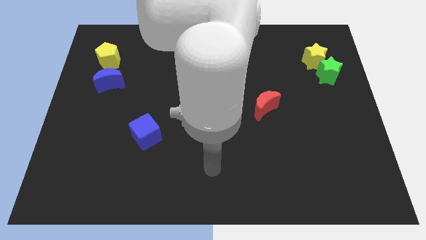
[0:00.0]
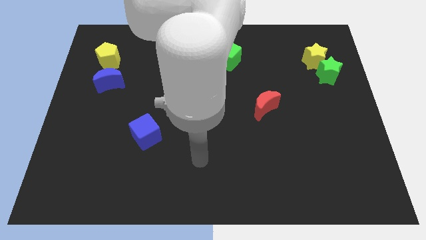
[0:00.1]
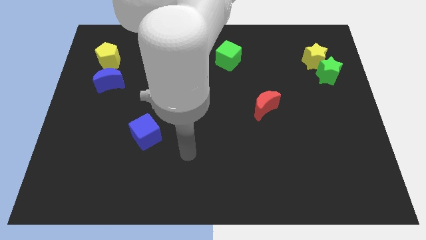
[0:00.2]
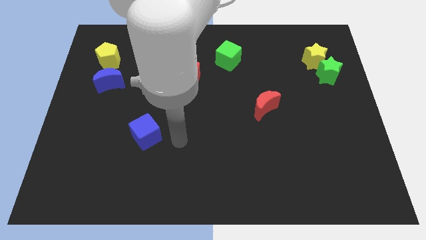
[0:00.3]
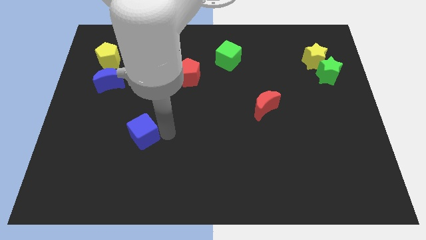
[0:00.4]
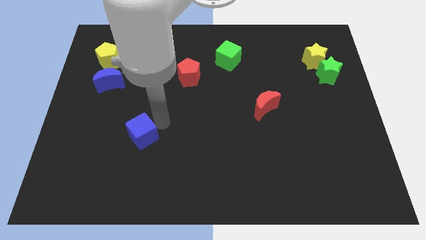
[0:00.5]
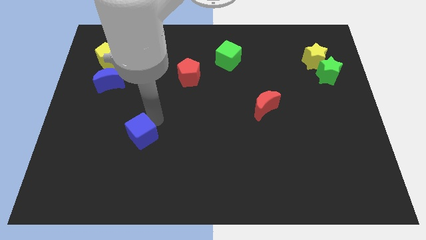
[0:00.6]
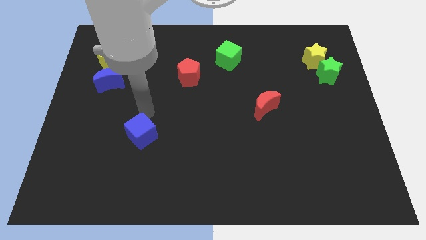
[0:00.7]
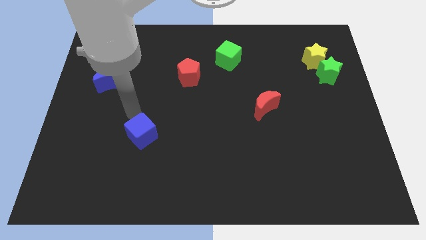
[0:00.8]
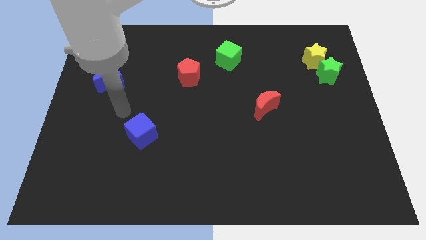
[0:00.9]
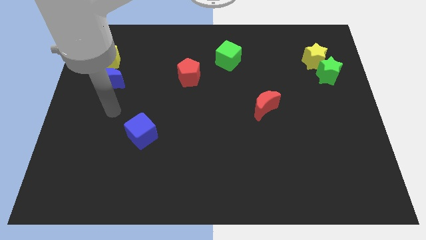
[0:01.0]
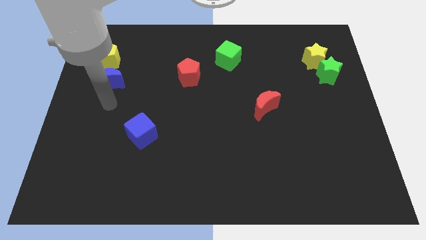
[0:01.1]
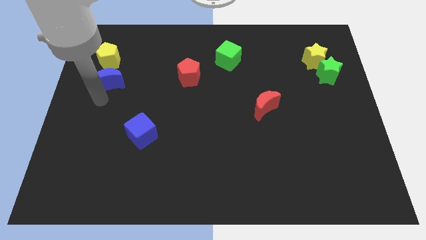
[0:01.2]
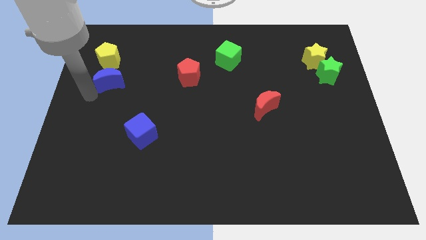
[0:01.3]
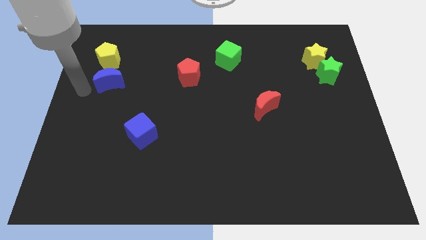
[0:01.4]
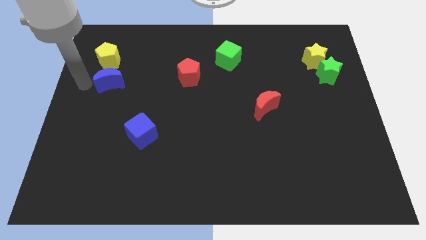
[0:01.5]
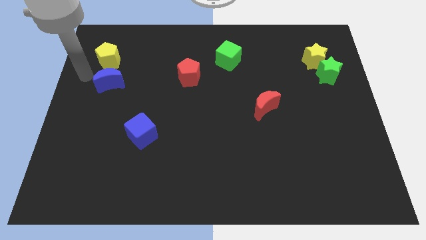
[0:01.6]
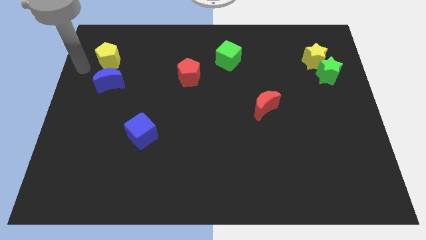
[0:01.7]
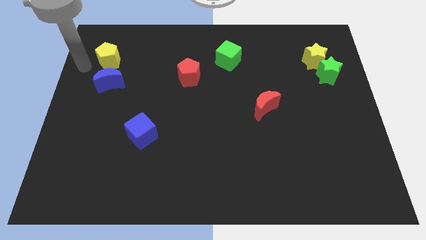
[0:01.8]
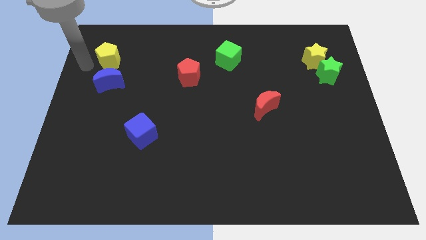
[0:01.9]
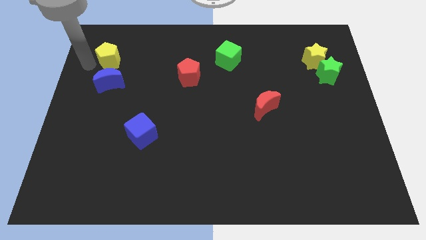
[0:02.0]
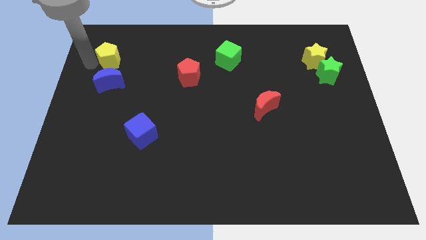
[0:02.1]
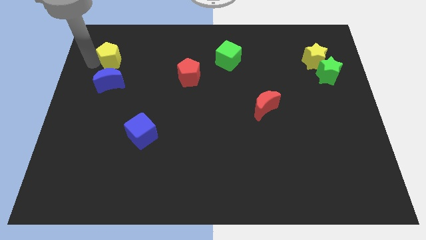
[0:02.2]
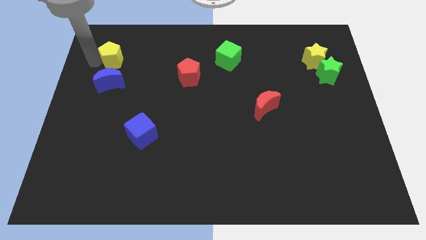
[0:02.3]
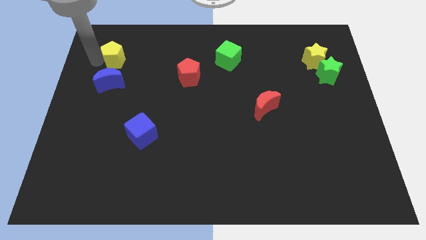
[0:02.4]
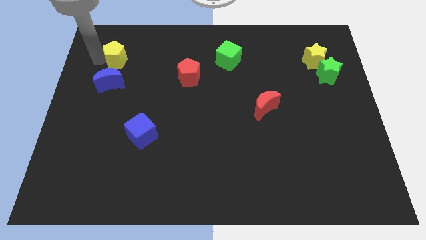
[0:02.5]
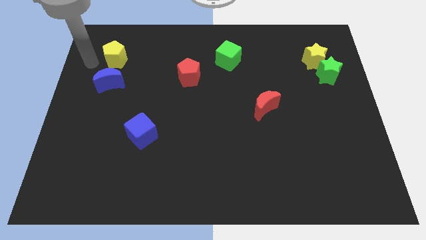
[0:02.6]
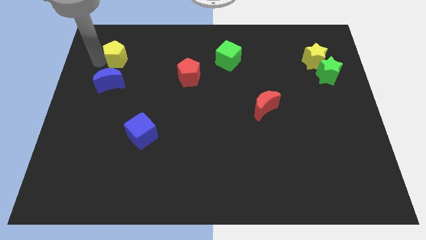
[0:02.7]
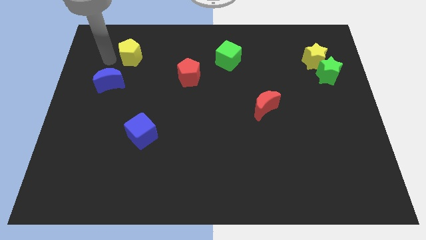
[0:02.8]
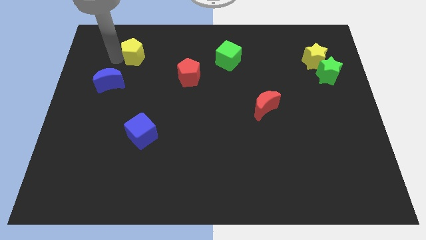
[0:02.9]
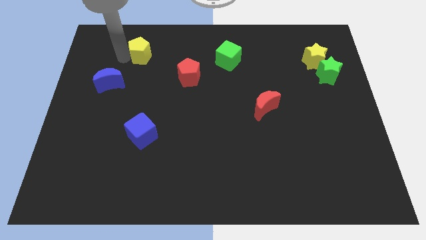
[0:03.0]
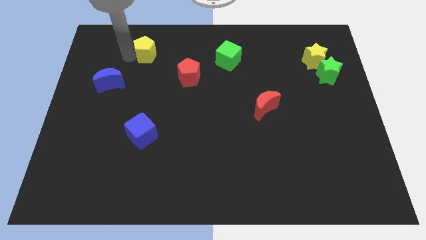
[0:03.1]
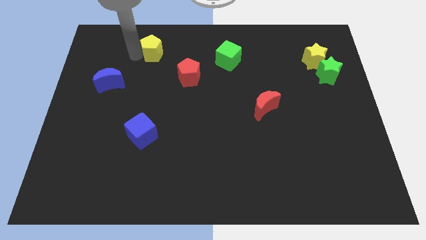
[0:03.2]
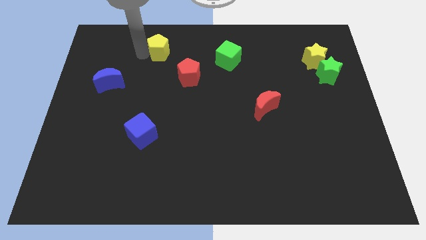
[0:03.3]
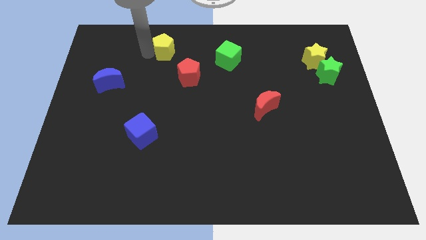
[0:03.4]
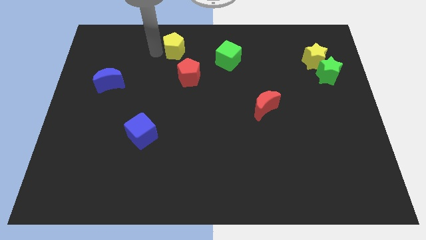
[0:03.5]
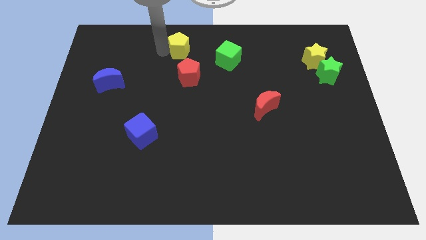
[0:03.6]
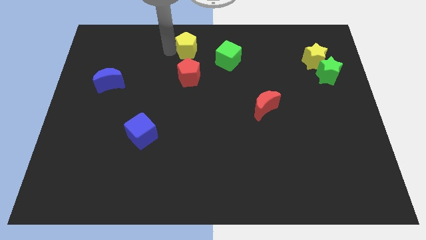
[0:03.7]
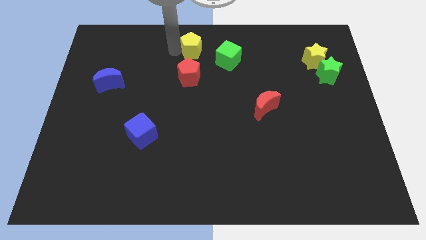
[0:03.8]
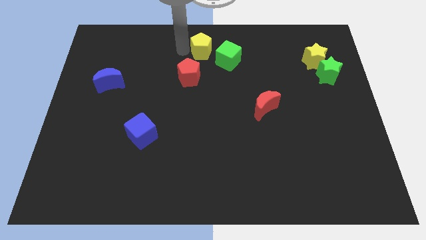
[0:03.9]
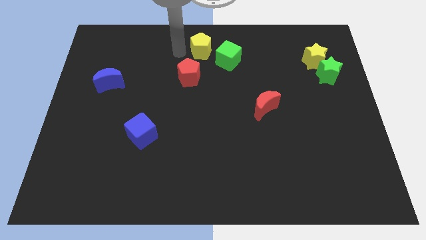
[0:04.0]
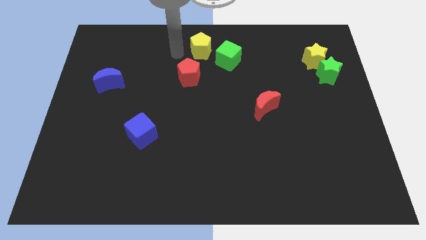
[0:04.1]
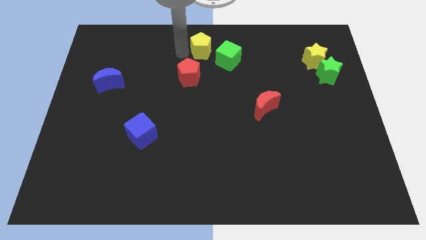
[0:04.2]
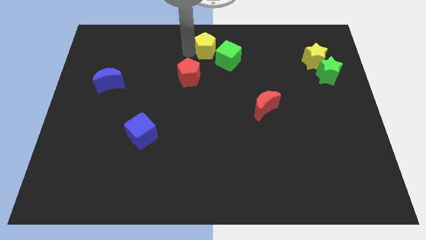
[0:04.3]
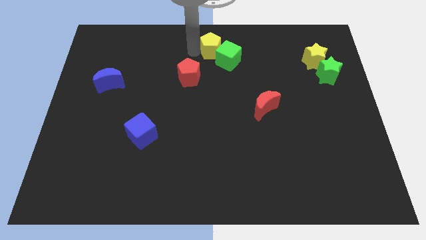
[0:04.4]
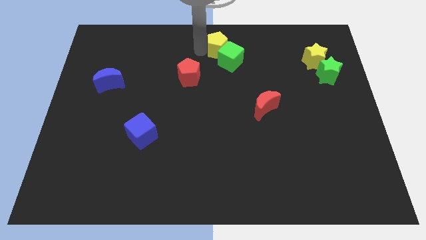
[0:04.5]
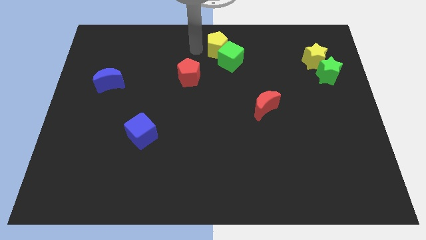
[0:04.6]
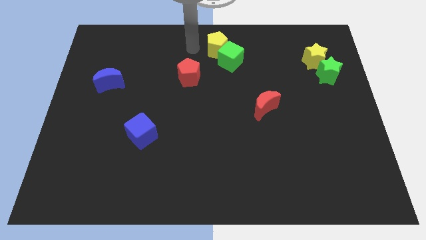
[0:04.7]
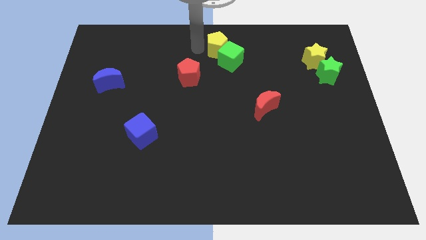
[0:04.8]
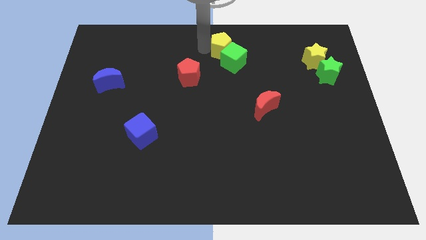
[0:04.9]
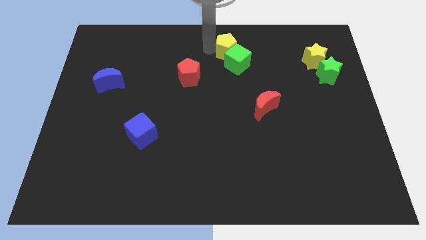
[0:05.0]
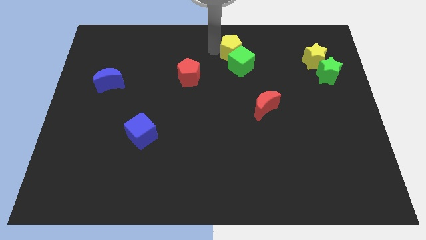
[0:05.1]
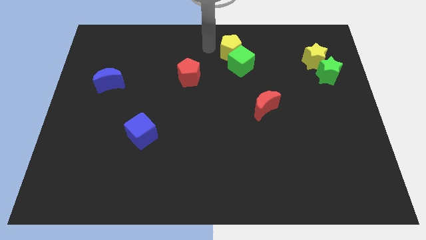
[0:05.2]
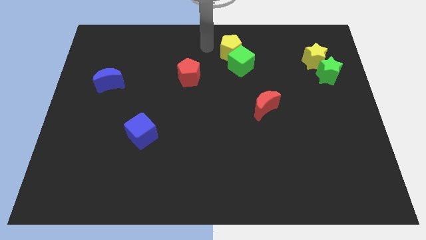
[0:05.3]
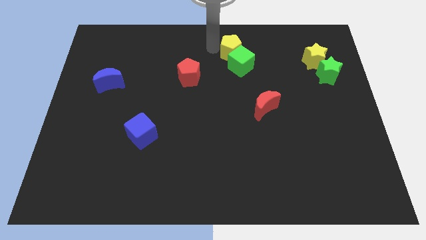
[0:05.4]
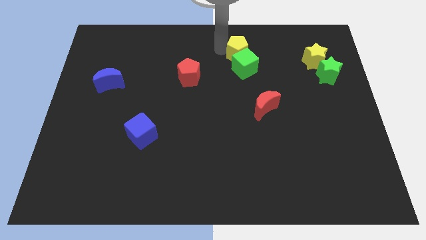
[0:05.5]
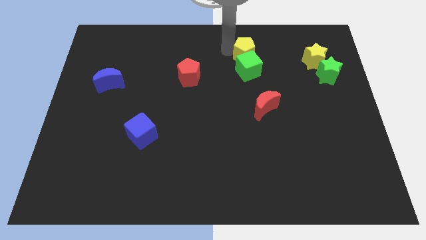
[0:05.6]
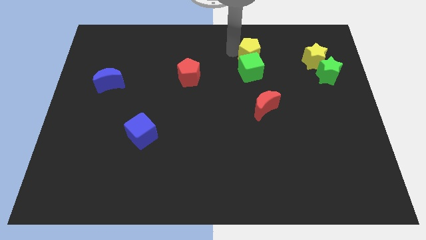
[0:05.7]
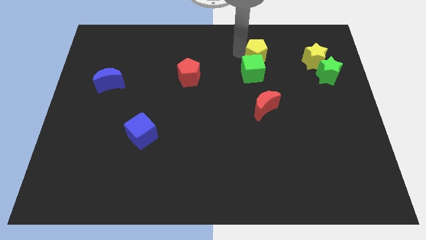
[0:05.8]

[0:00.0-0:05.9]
slide the yellow pentagon to the left of the yellow star
